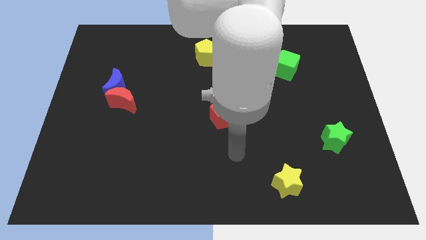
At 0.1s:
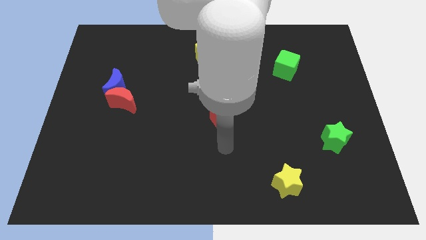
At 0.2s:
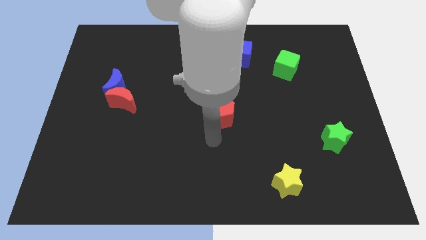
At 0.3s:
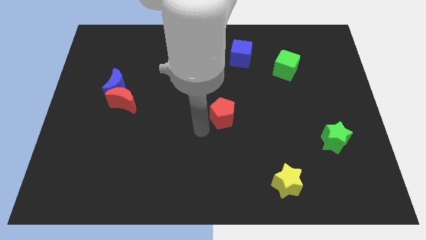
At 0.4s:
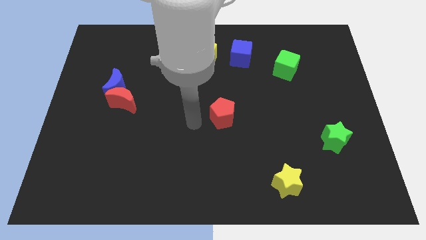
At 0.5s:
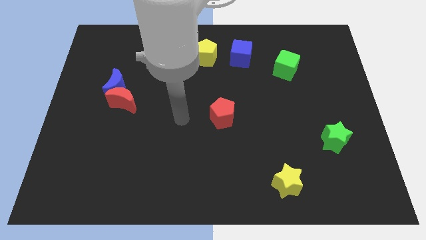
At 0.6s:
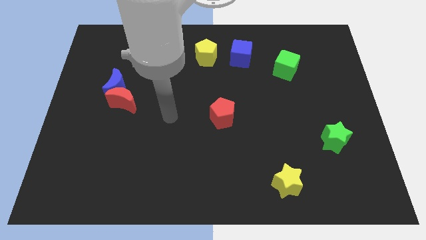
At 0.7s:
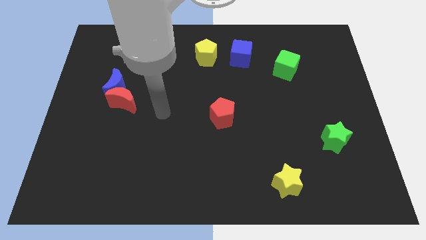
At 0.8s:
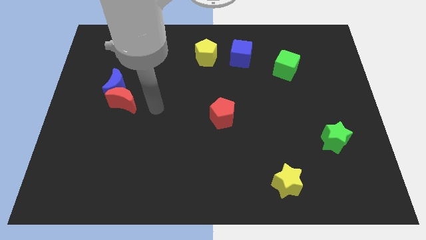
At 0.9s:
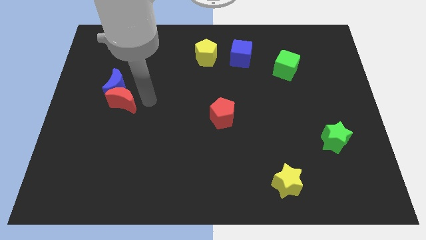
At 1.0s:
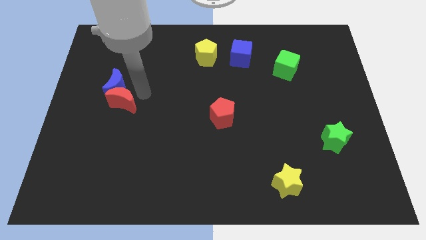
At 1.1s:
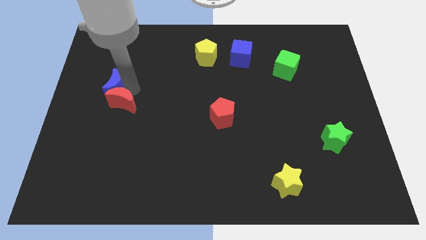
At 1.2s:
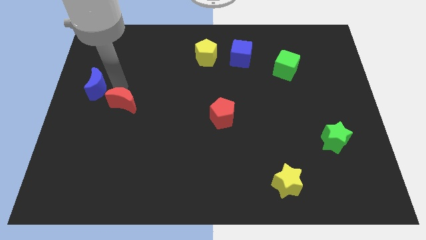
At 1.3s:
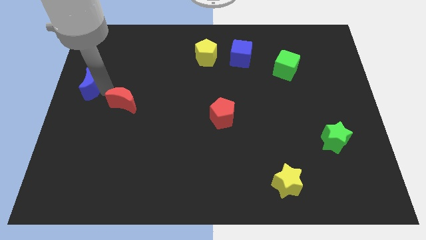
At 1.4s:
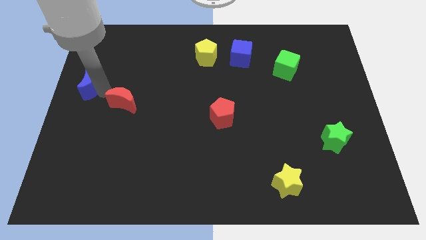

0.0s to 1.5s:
move the red moon away from the blue moon

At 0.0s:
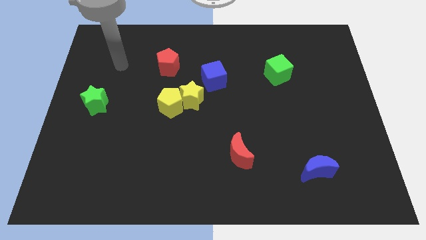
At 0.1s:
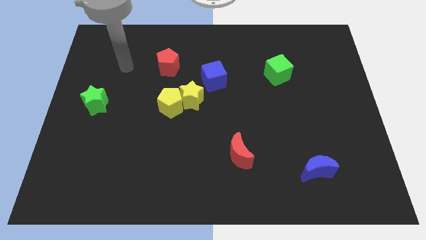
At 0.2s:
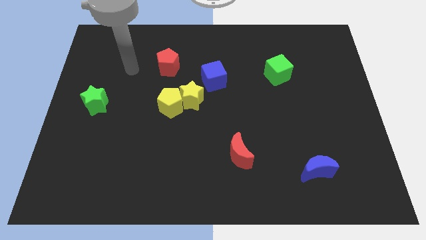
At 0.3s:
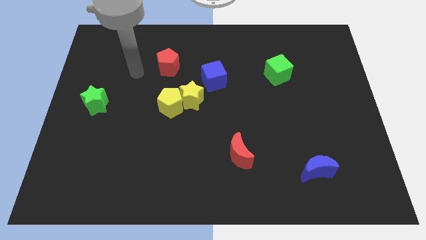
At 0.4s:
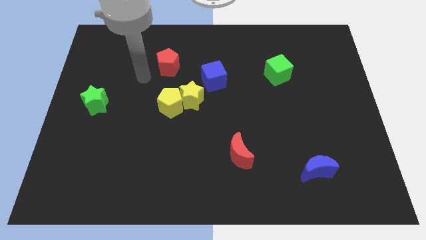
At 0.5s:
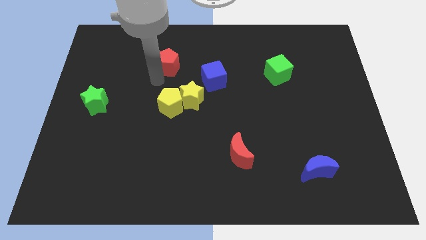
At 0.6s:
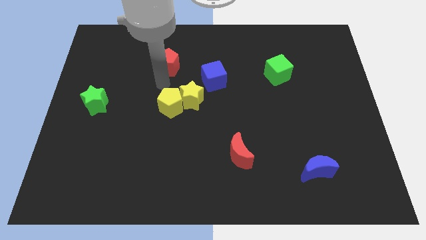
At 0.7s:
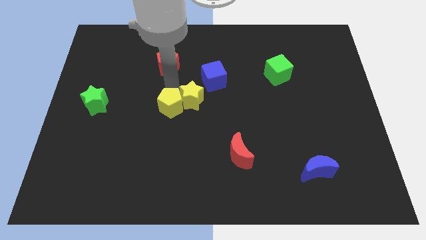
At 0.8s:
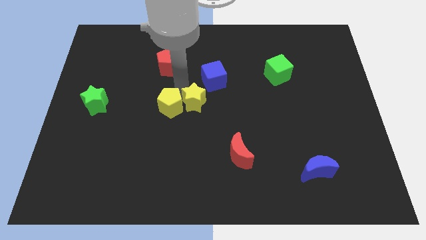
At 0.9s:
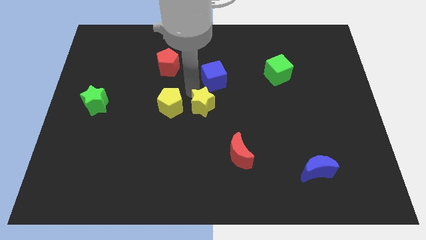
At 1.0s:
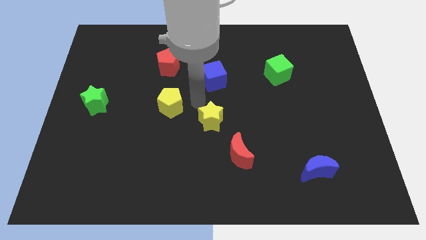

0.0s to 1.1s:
move the yellow pentagon away from the yellow star

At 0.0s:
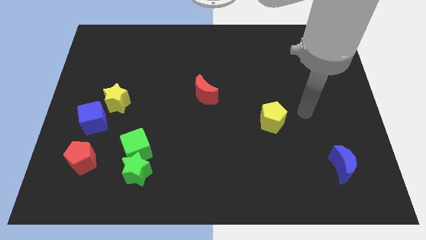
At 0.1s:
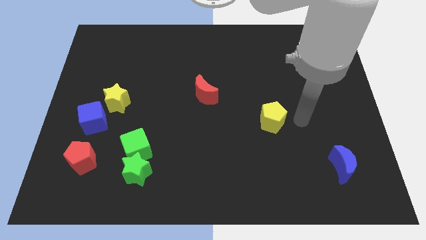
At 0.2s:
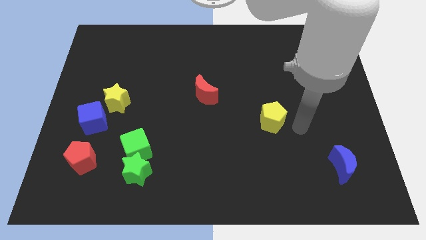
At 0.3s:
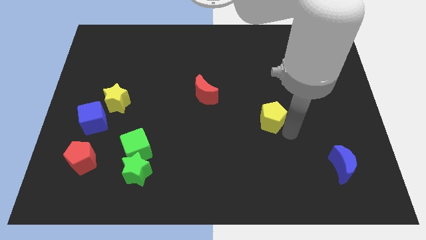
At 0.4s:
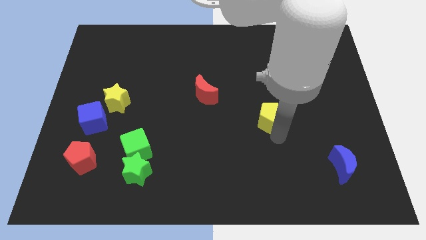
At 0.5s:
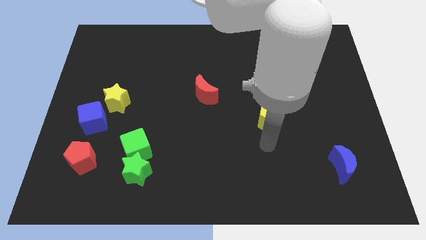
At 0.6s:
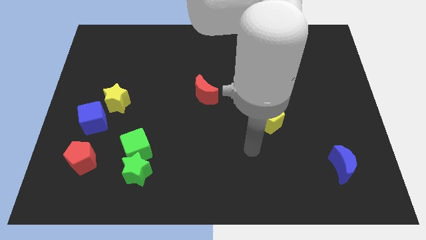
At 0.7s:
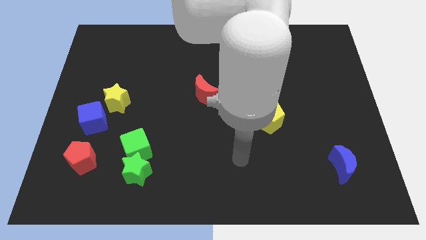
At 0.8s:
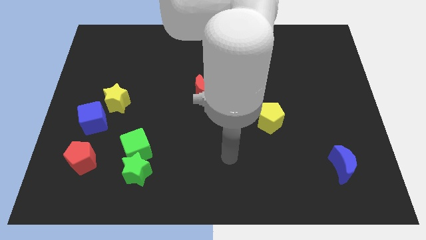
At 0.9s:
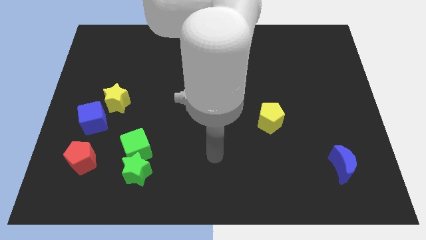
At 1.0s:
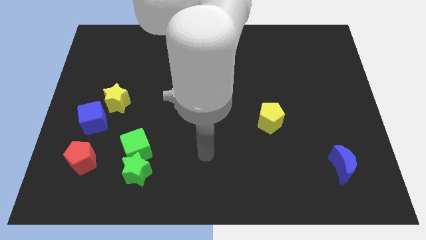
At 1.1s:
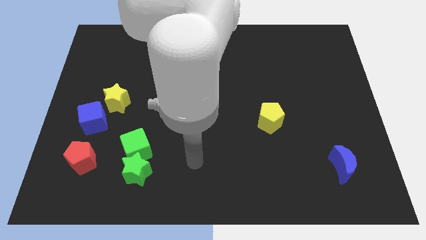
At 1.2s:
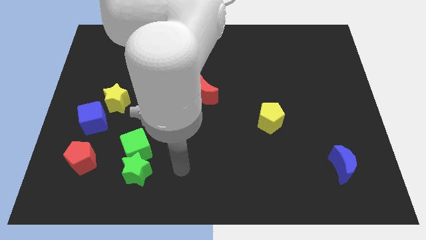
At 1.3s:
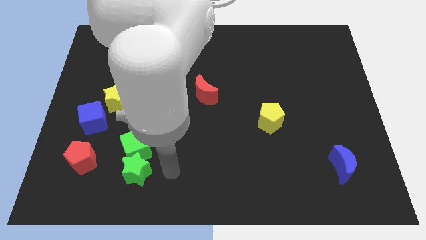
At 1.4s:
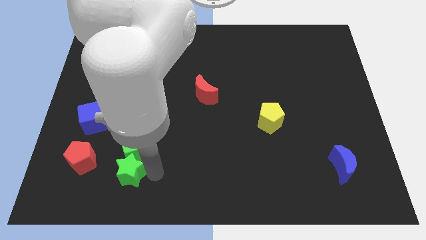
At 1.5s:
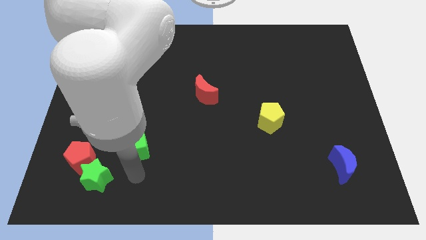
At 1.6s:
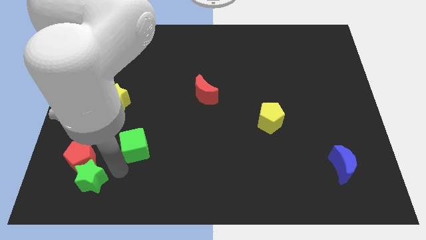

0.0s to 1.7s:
move the green cube away from the green star

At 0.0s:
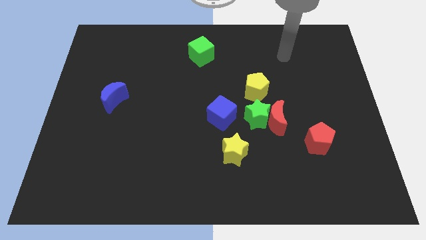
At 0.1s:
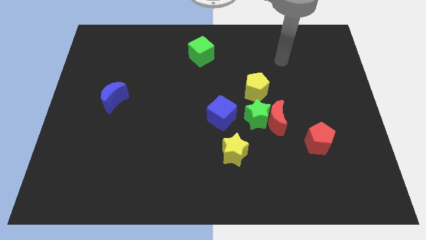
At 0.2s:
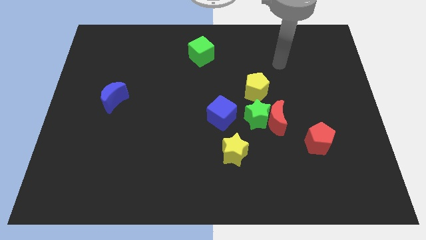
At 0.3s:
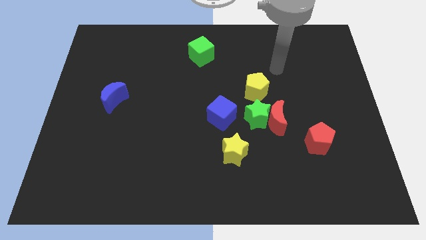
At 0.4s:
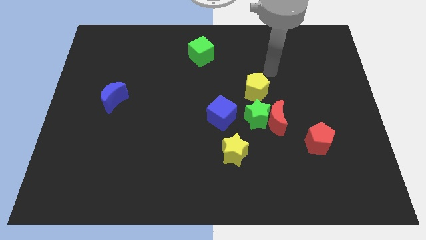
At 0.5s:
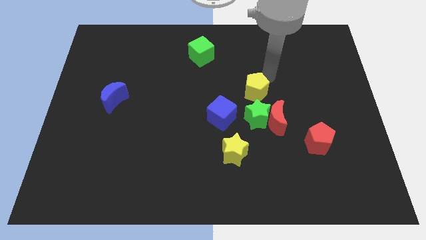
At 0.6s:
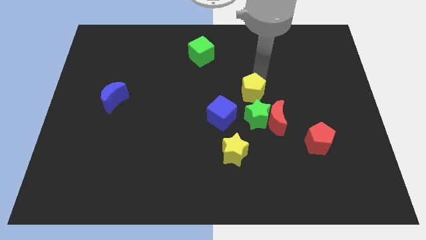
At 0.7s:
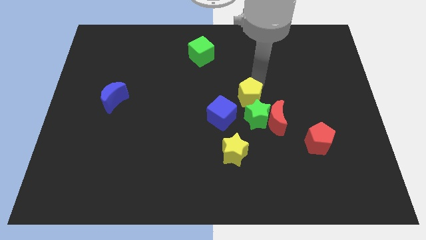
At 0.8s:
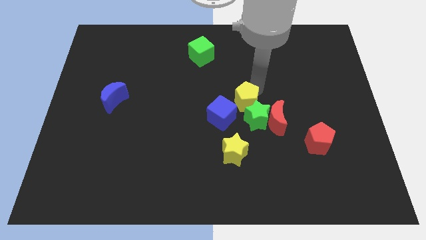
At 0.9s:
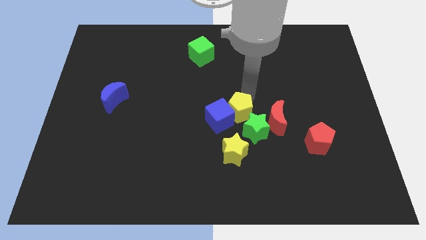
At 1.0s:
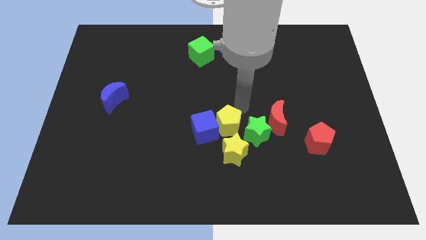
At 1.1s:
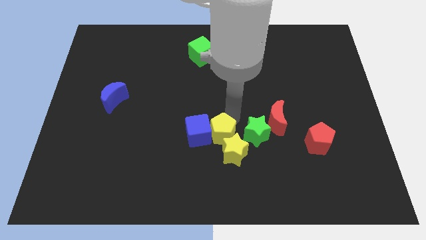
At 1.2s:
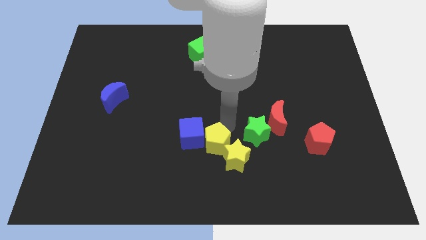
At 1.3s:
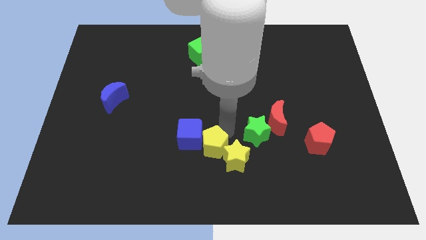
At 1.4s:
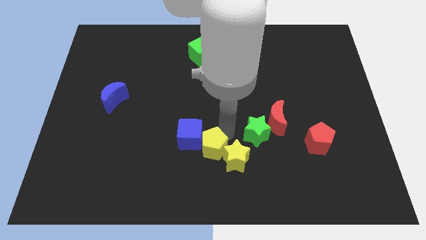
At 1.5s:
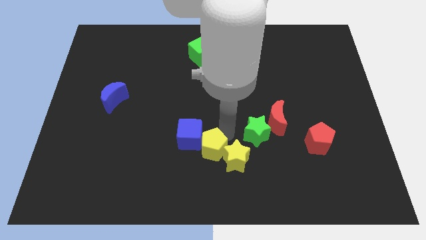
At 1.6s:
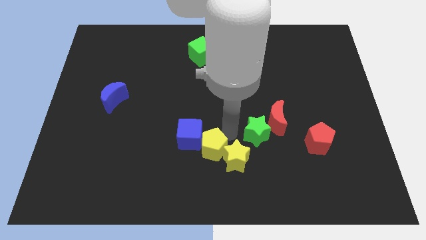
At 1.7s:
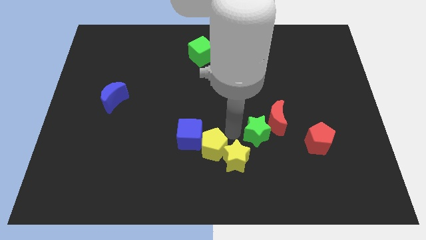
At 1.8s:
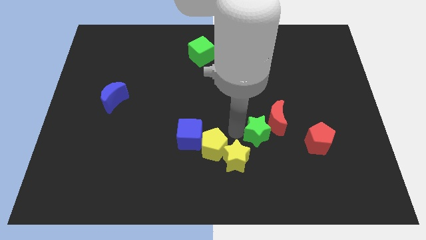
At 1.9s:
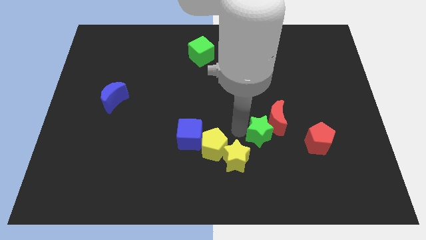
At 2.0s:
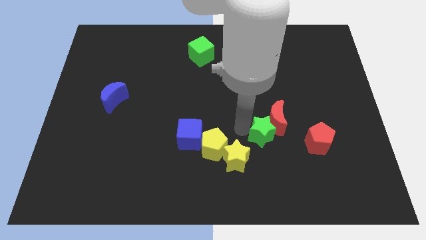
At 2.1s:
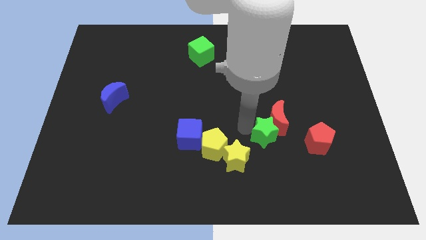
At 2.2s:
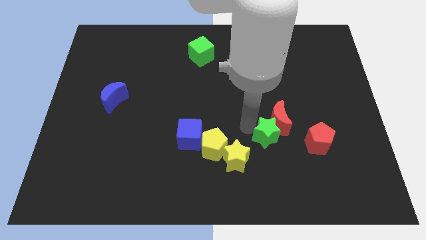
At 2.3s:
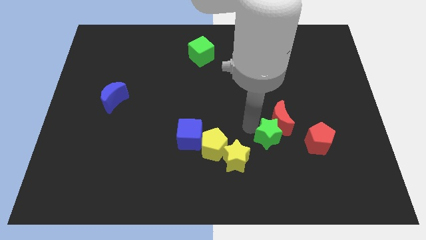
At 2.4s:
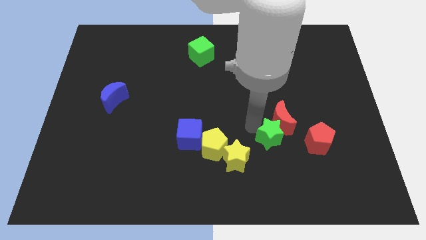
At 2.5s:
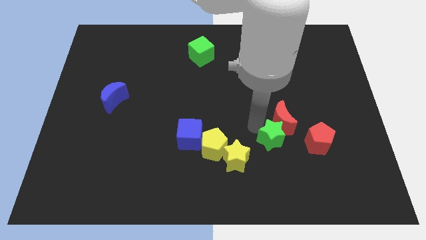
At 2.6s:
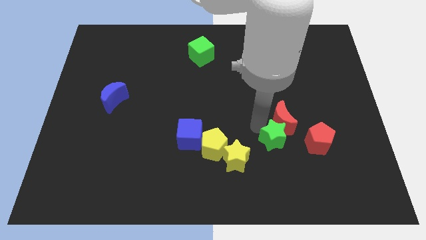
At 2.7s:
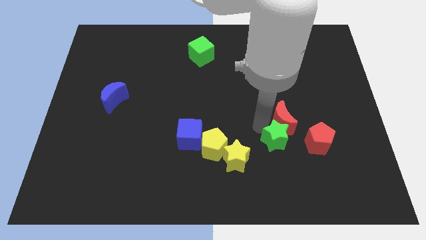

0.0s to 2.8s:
separate the green star from the clump

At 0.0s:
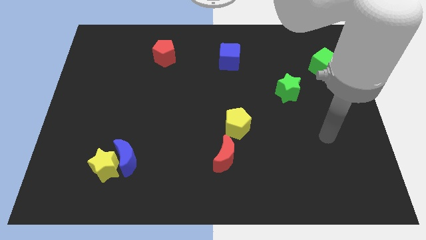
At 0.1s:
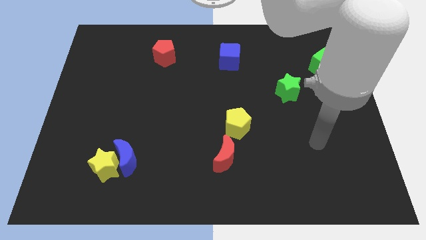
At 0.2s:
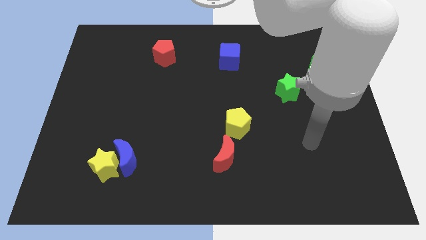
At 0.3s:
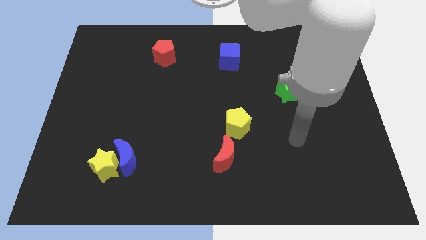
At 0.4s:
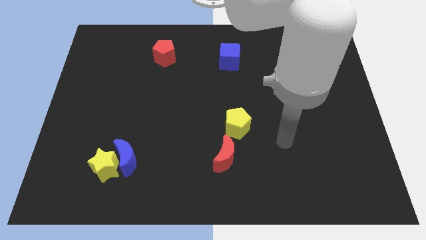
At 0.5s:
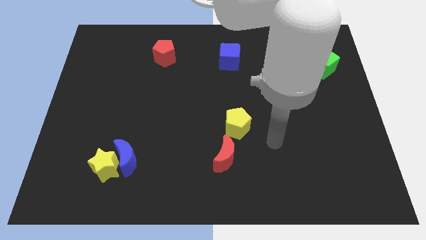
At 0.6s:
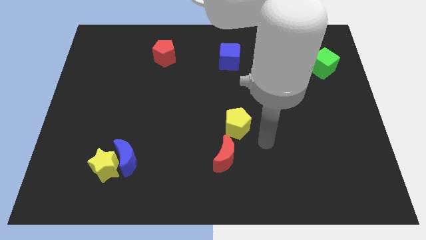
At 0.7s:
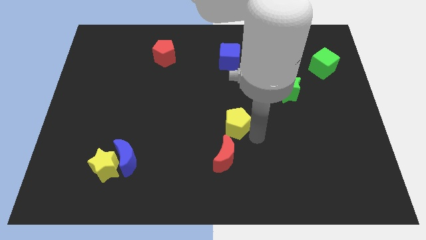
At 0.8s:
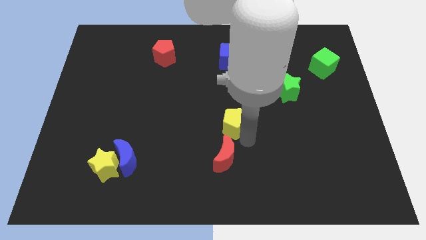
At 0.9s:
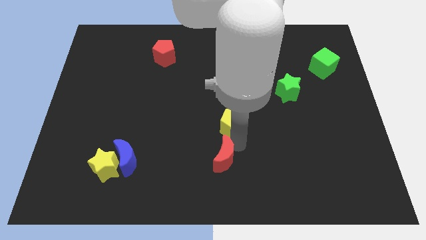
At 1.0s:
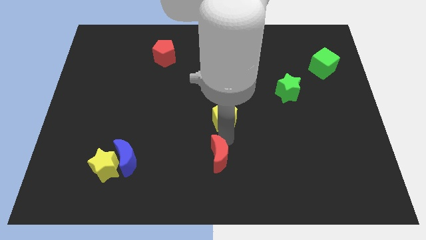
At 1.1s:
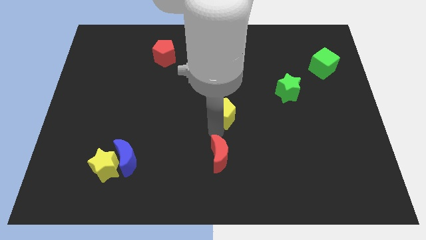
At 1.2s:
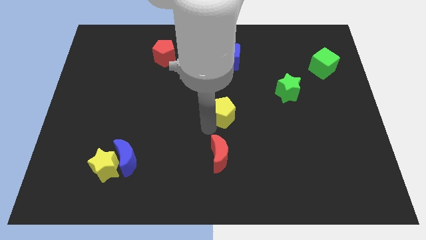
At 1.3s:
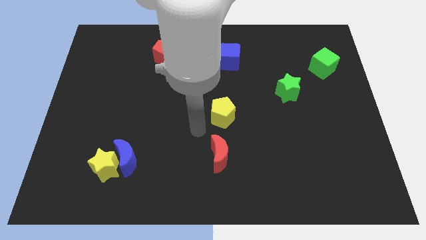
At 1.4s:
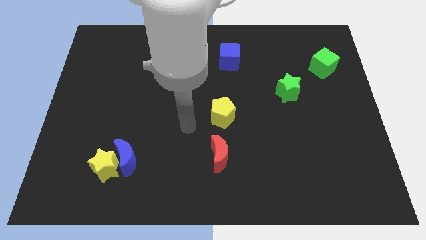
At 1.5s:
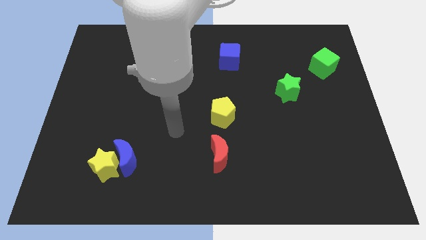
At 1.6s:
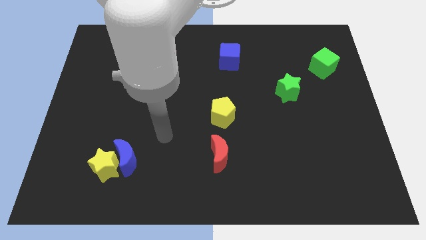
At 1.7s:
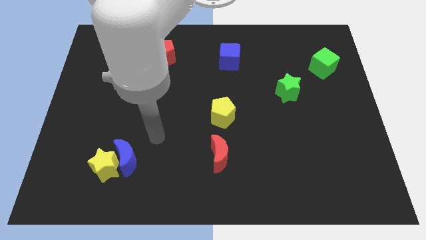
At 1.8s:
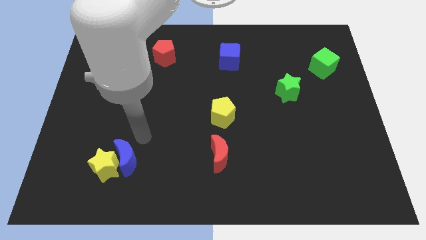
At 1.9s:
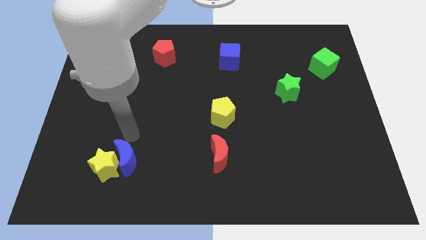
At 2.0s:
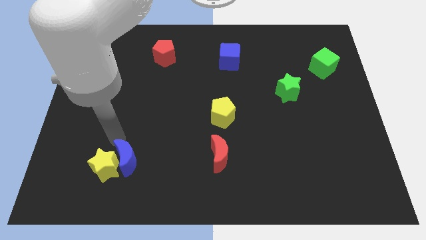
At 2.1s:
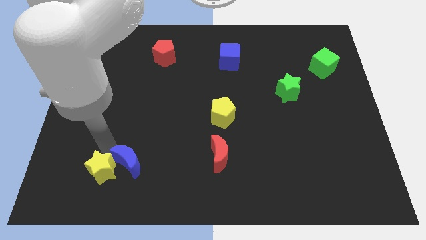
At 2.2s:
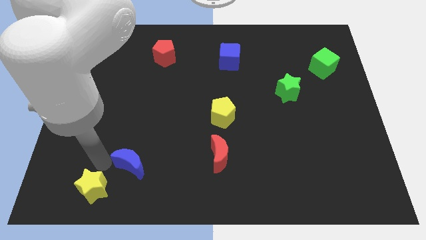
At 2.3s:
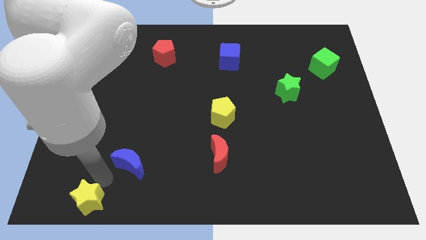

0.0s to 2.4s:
move the blue moon away from the yellow star
